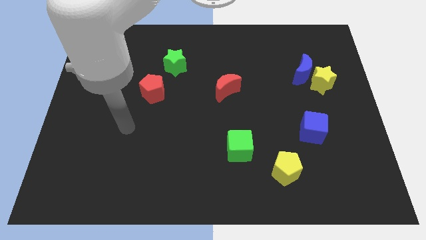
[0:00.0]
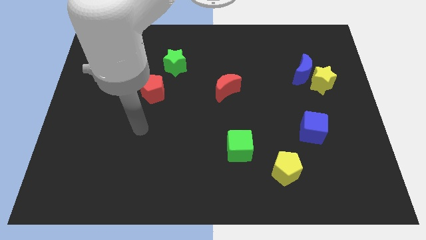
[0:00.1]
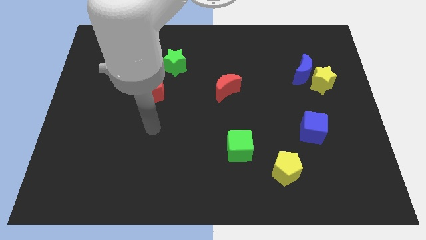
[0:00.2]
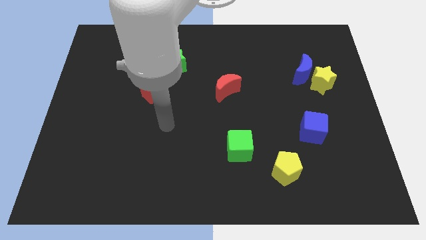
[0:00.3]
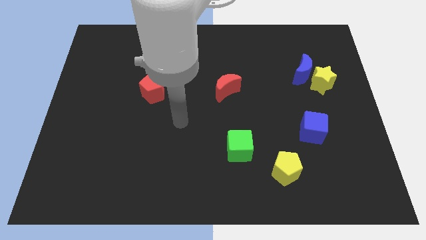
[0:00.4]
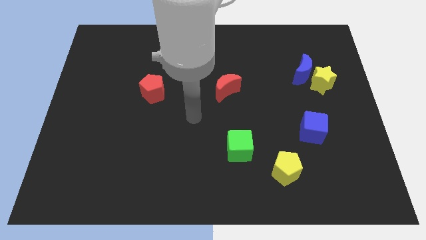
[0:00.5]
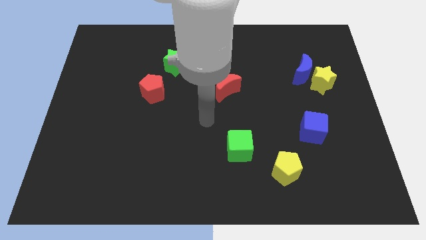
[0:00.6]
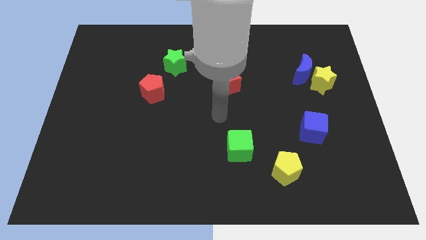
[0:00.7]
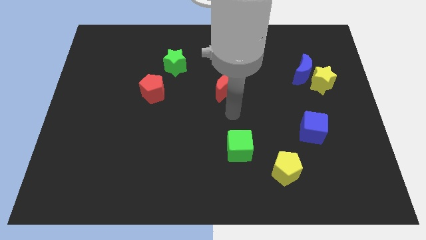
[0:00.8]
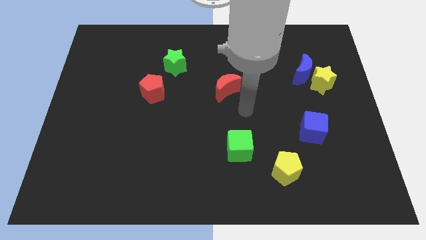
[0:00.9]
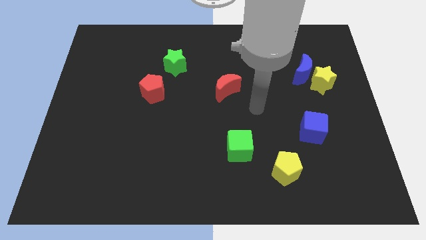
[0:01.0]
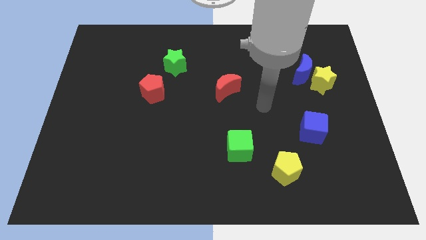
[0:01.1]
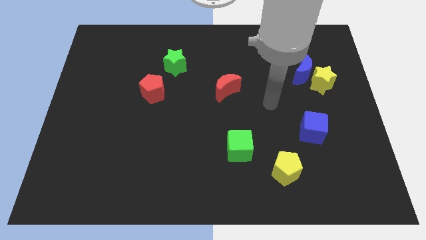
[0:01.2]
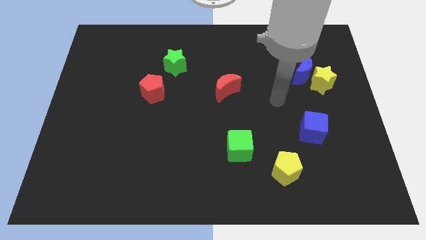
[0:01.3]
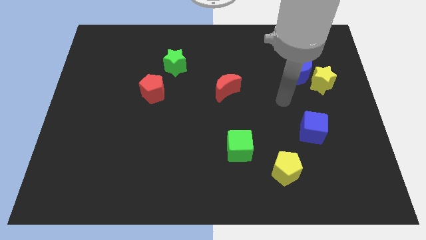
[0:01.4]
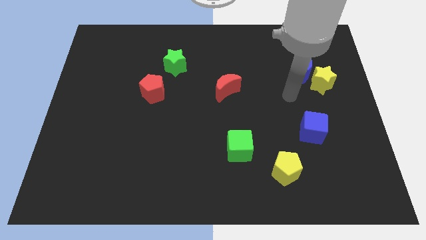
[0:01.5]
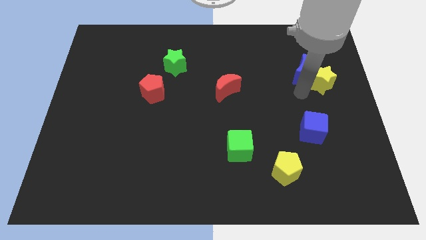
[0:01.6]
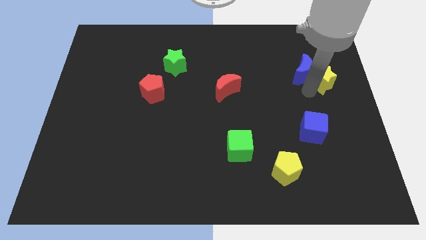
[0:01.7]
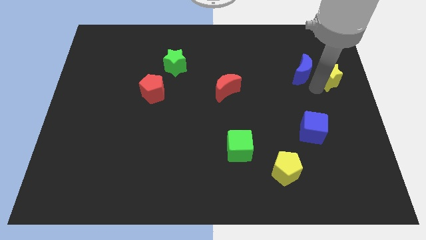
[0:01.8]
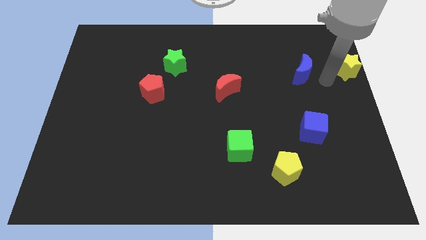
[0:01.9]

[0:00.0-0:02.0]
move the blue moon away from the yellow star

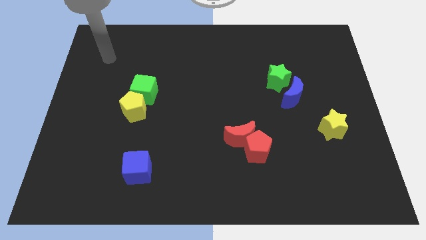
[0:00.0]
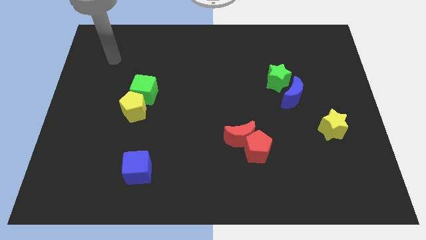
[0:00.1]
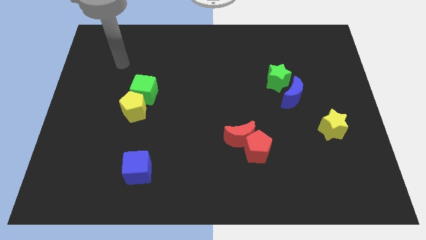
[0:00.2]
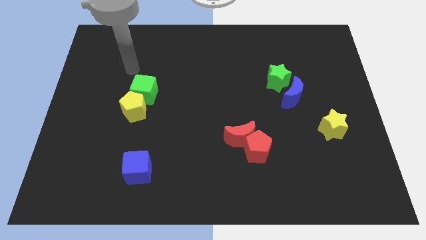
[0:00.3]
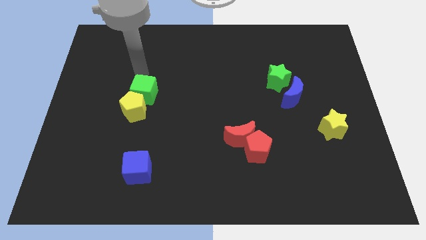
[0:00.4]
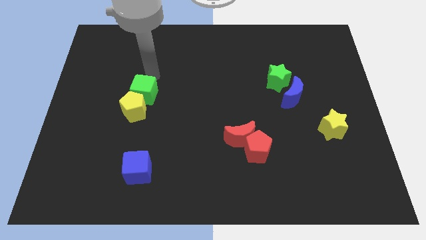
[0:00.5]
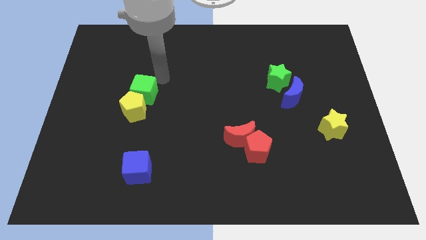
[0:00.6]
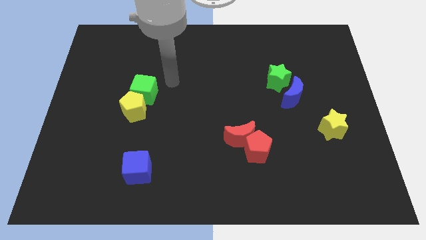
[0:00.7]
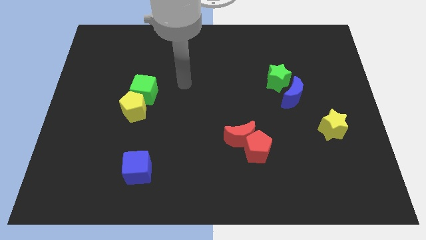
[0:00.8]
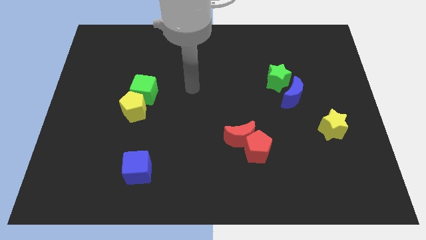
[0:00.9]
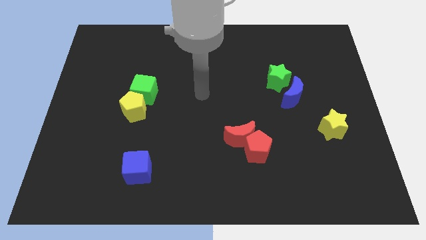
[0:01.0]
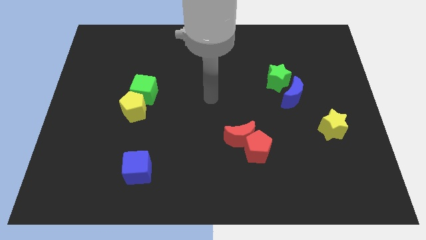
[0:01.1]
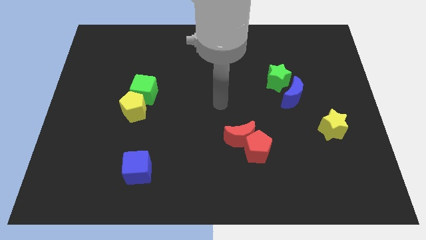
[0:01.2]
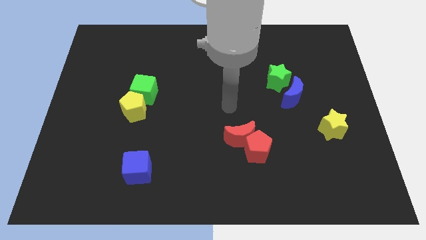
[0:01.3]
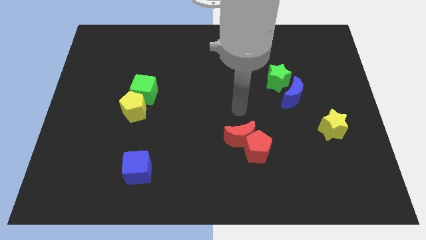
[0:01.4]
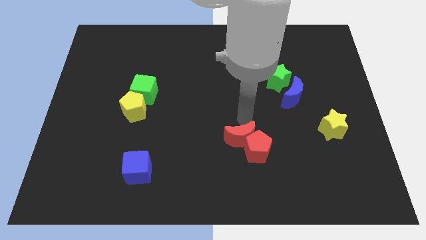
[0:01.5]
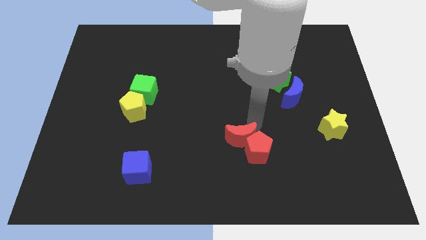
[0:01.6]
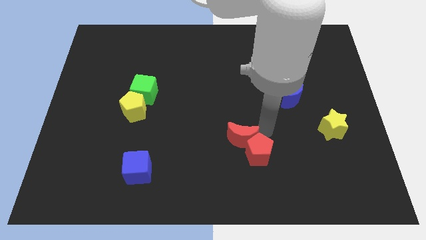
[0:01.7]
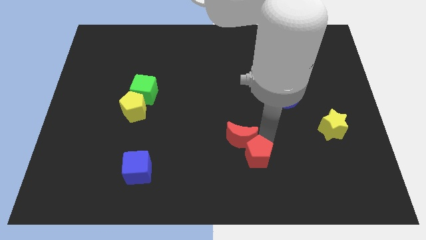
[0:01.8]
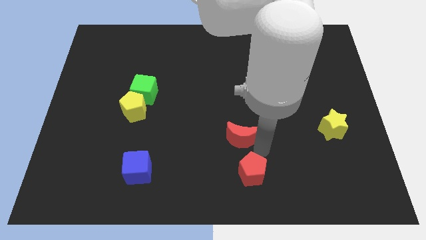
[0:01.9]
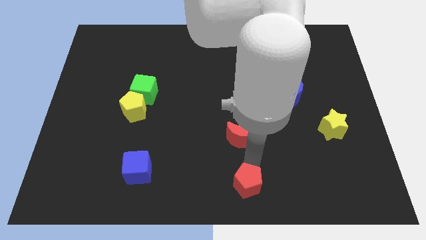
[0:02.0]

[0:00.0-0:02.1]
pull the red moon apart from the red pentagon

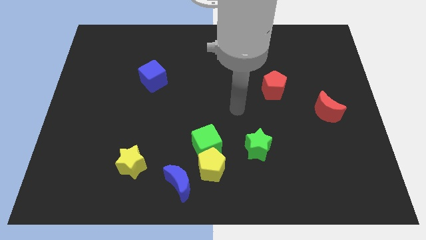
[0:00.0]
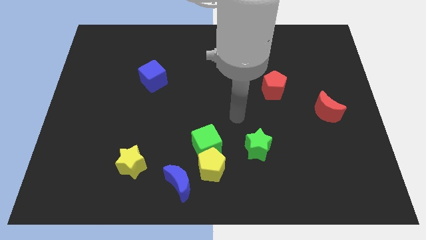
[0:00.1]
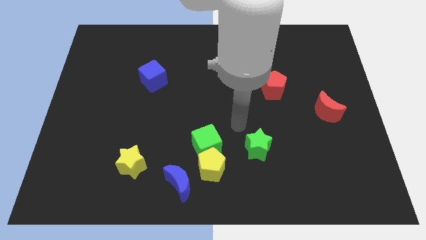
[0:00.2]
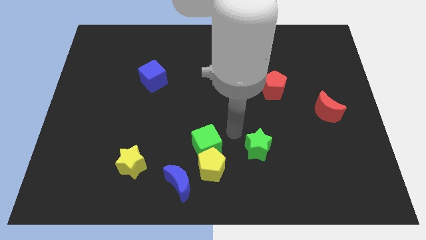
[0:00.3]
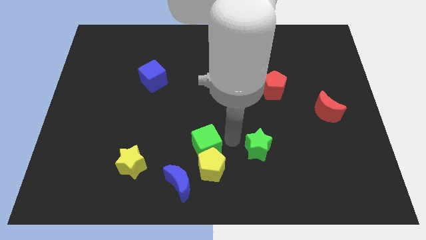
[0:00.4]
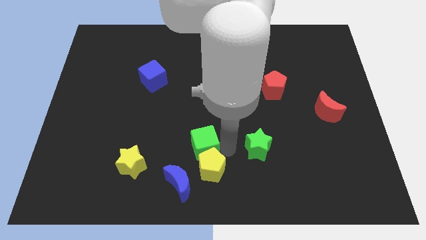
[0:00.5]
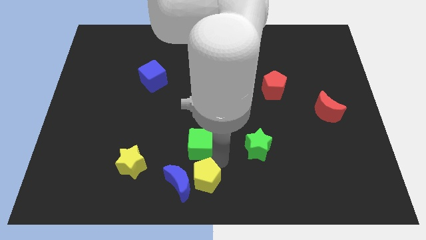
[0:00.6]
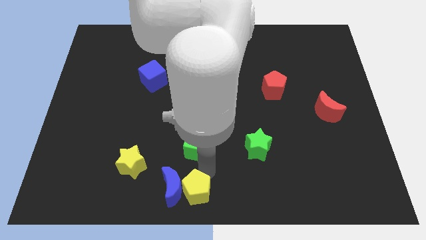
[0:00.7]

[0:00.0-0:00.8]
pull the green cube apart from the yellow pentagon

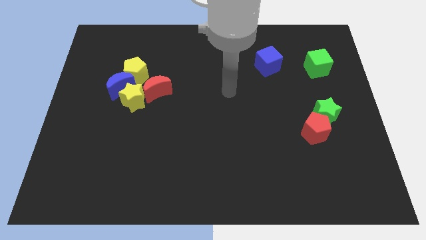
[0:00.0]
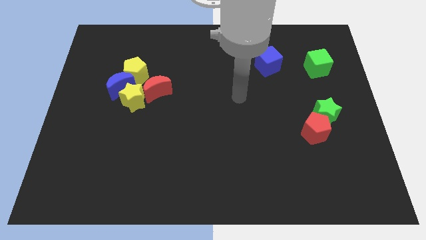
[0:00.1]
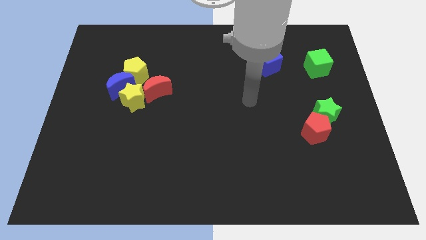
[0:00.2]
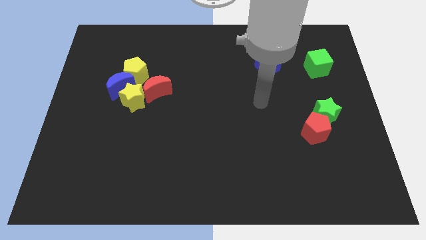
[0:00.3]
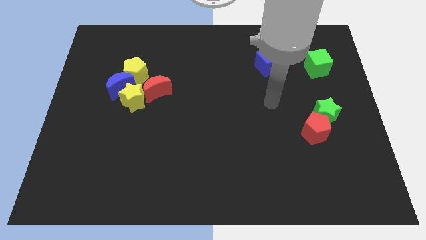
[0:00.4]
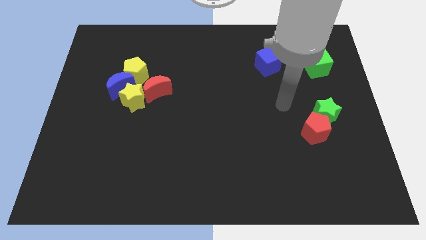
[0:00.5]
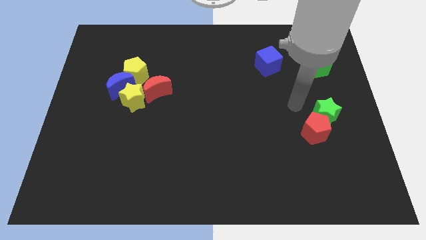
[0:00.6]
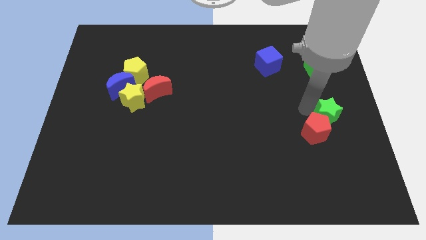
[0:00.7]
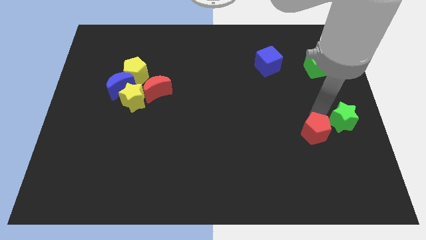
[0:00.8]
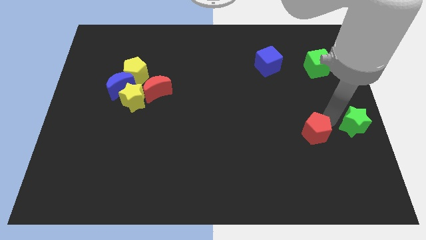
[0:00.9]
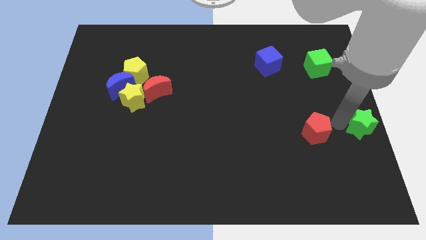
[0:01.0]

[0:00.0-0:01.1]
separate the red pentagon from the green star

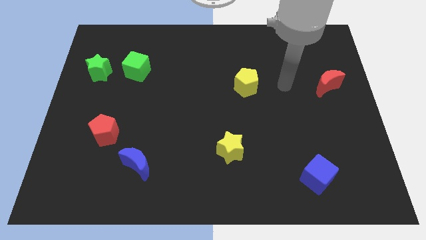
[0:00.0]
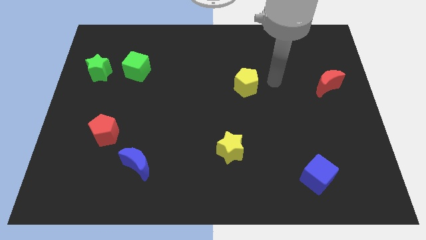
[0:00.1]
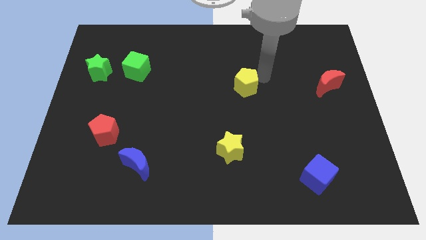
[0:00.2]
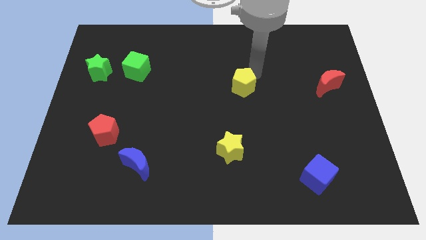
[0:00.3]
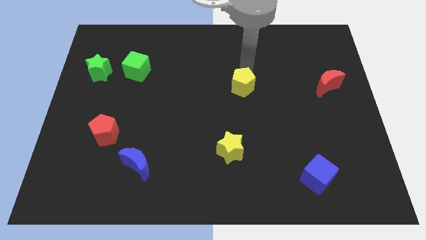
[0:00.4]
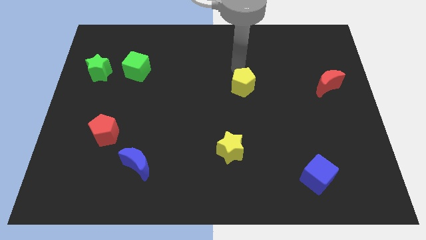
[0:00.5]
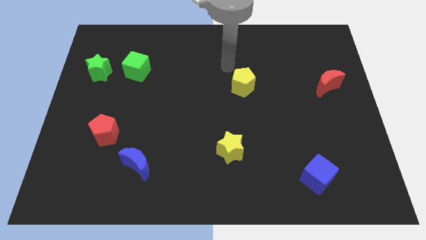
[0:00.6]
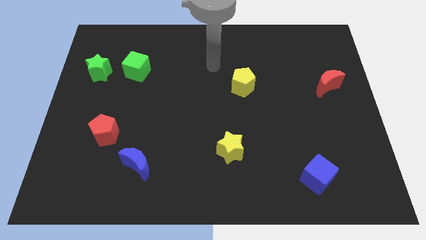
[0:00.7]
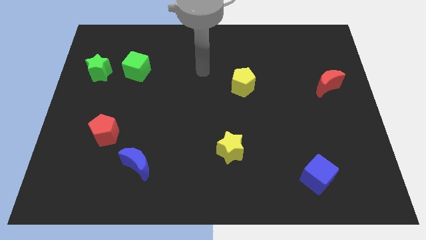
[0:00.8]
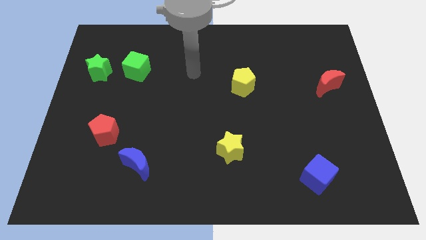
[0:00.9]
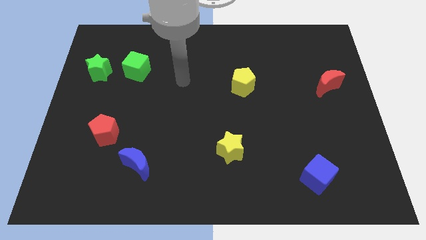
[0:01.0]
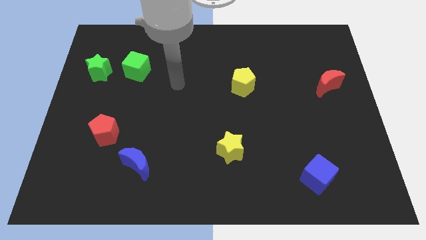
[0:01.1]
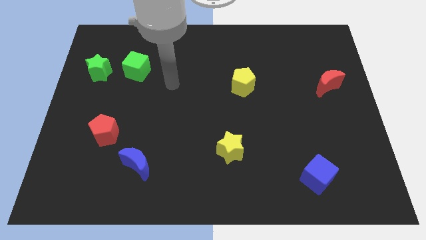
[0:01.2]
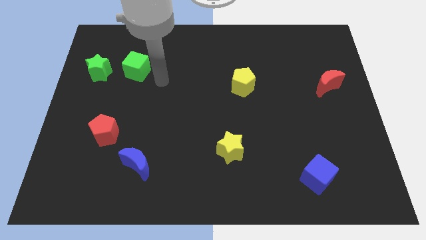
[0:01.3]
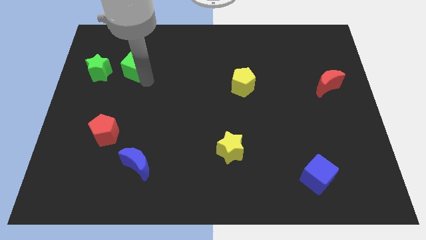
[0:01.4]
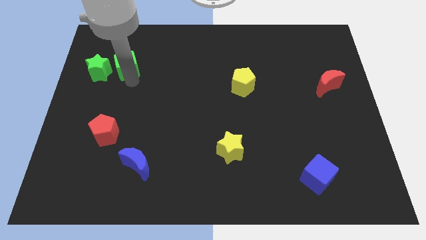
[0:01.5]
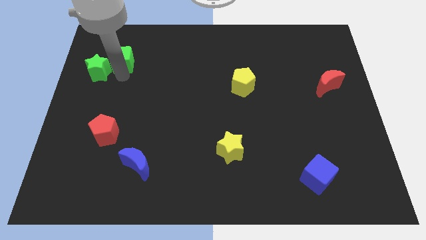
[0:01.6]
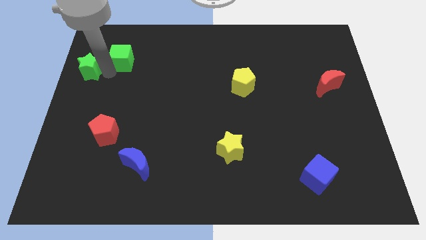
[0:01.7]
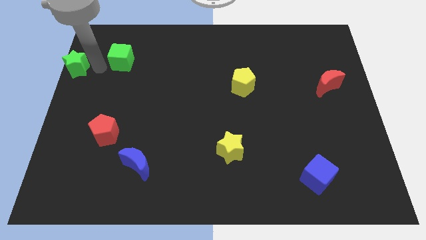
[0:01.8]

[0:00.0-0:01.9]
separate the green cube from the green star

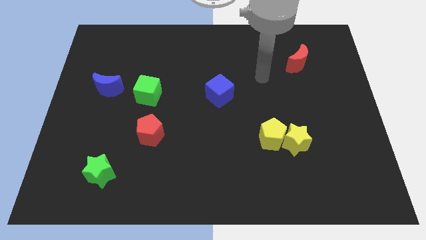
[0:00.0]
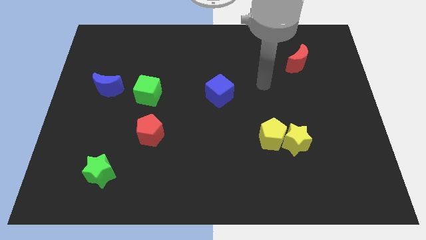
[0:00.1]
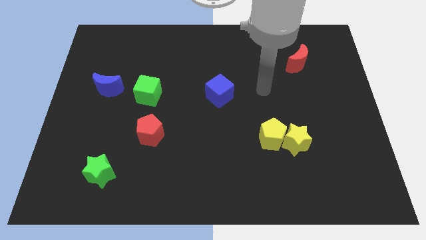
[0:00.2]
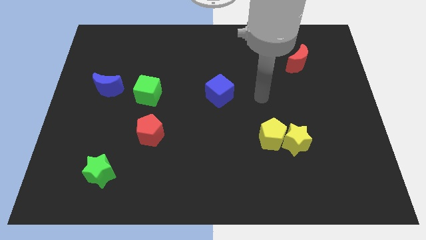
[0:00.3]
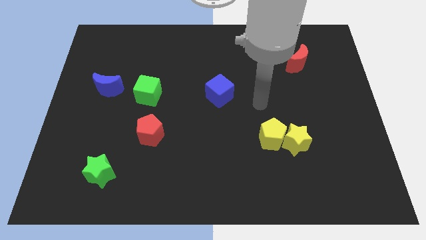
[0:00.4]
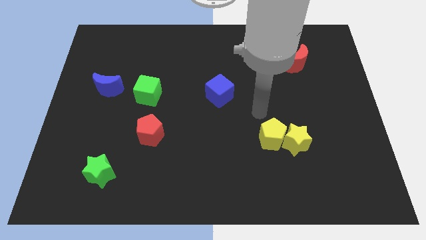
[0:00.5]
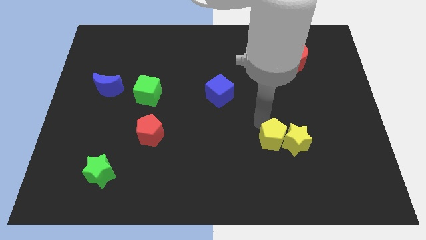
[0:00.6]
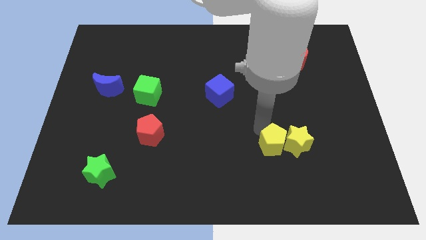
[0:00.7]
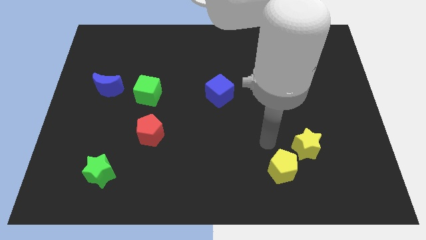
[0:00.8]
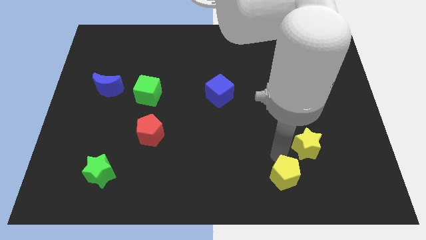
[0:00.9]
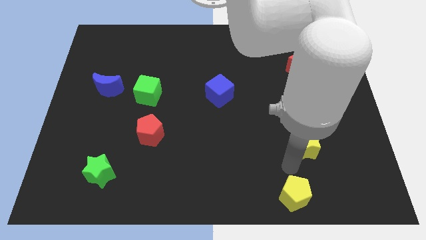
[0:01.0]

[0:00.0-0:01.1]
pull the yellow star apart from the yellow pentagon

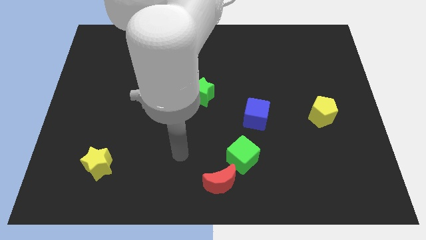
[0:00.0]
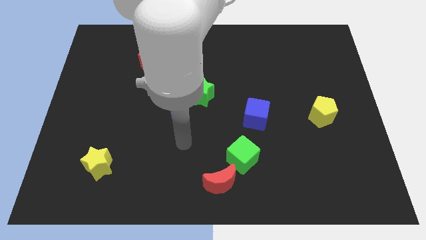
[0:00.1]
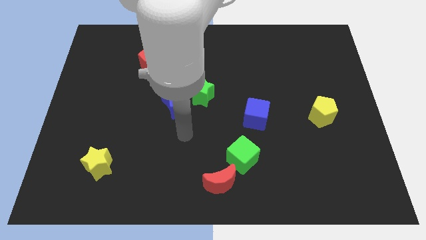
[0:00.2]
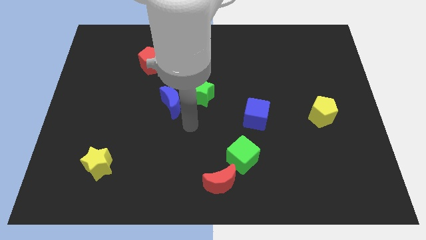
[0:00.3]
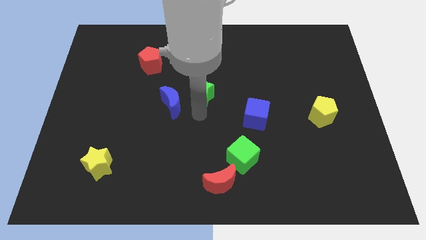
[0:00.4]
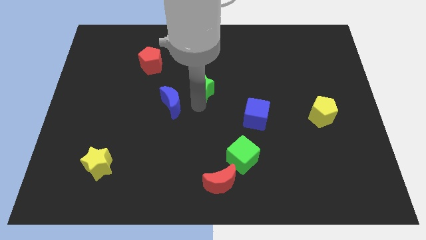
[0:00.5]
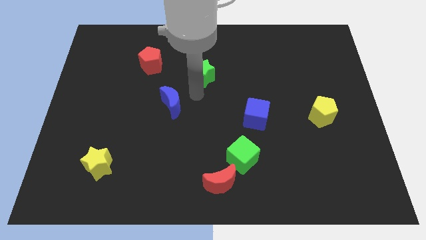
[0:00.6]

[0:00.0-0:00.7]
separate the blue moon from the green star
